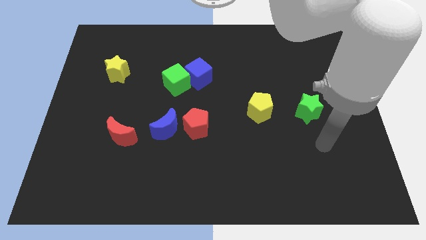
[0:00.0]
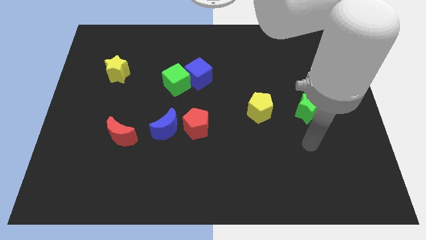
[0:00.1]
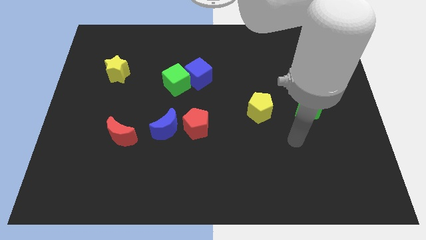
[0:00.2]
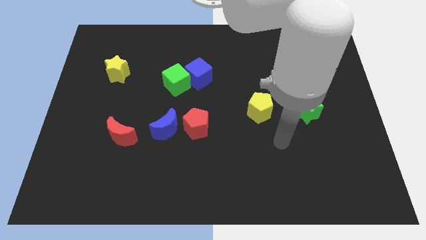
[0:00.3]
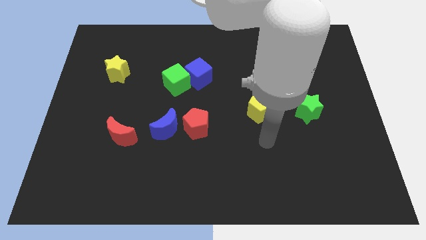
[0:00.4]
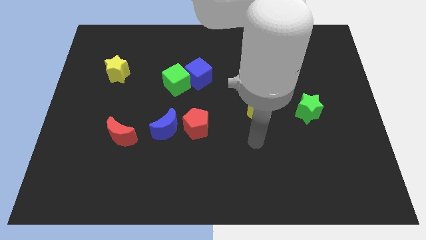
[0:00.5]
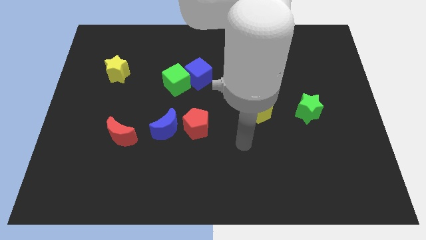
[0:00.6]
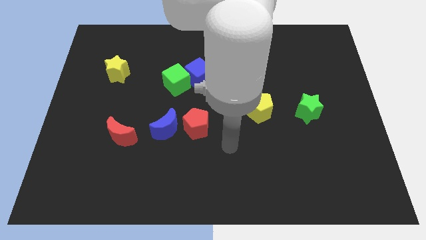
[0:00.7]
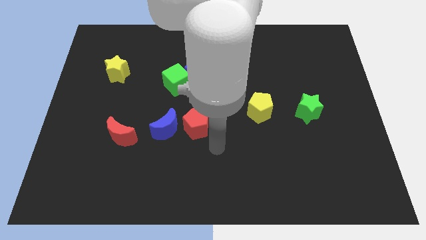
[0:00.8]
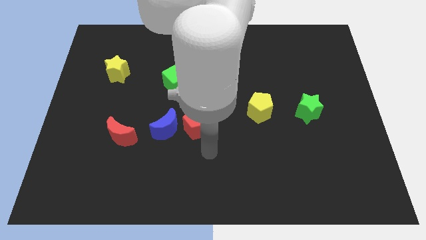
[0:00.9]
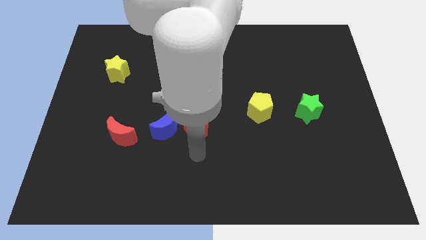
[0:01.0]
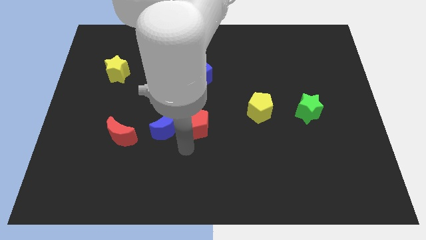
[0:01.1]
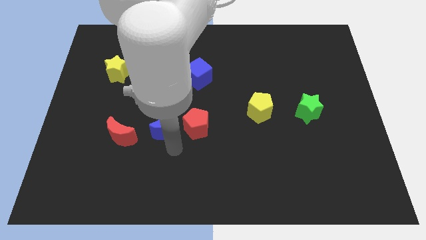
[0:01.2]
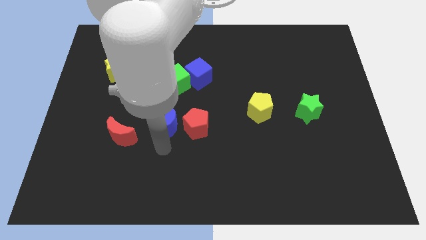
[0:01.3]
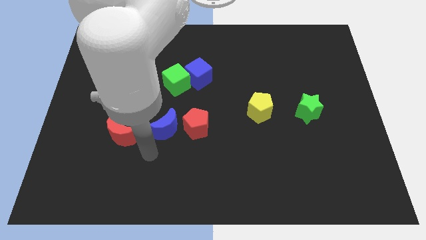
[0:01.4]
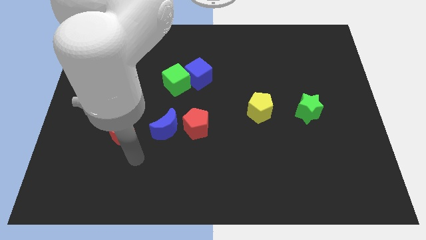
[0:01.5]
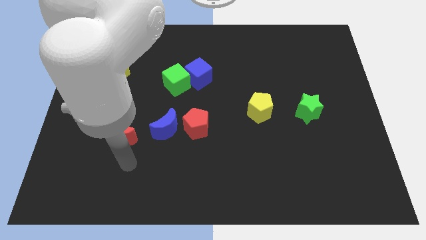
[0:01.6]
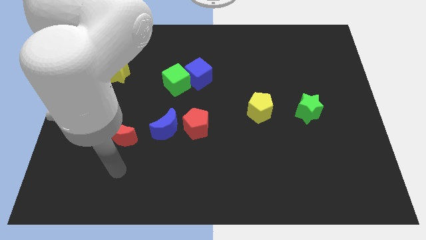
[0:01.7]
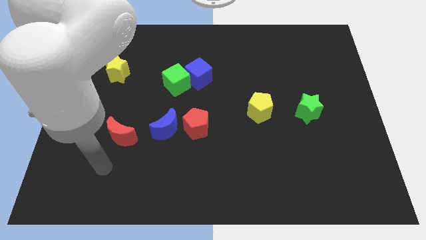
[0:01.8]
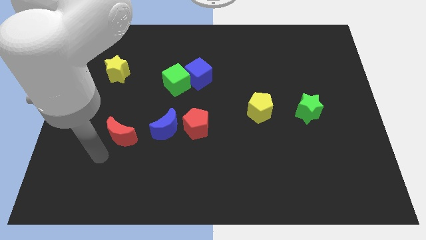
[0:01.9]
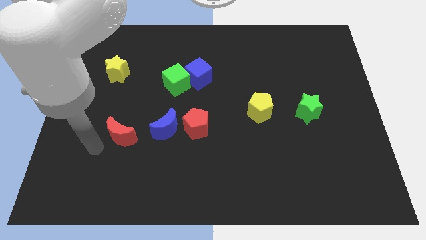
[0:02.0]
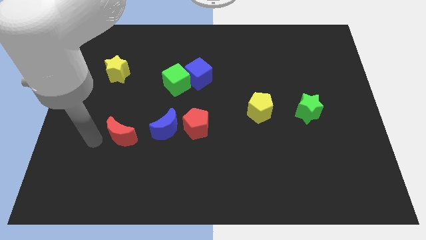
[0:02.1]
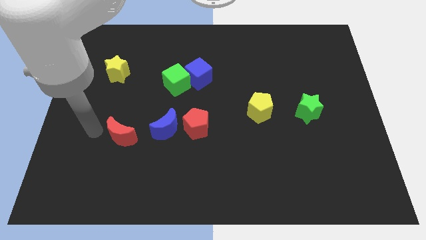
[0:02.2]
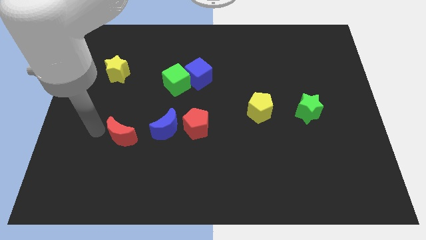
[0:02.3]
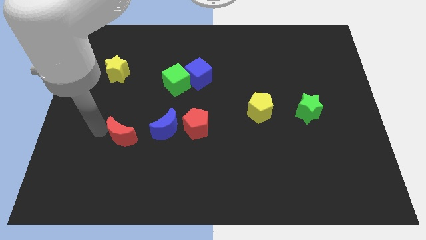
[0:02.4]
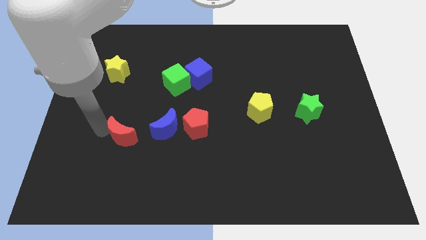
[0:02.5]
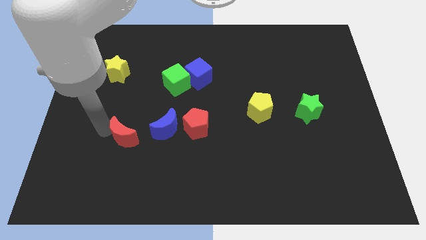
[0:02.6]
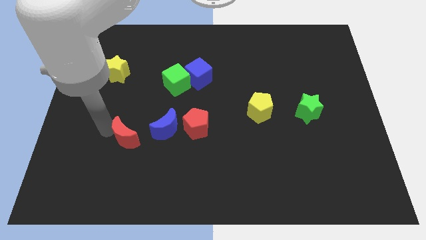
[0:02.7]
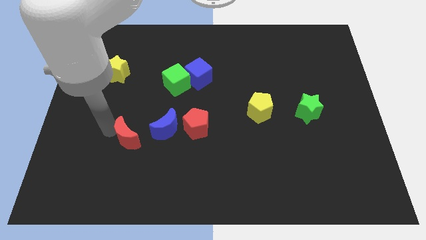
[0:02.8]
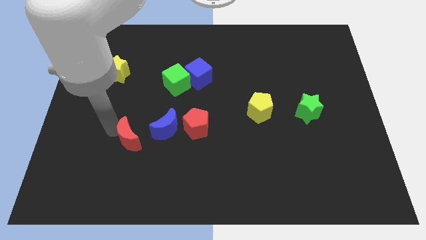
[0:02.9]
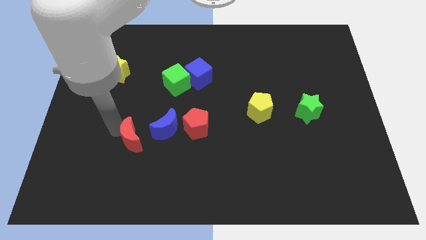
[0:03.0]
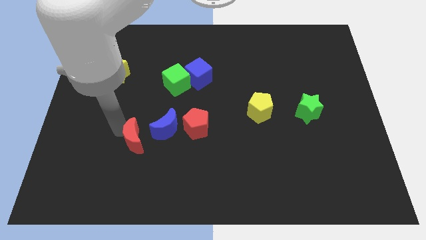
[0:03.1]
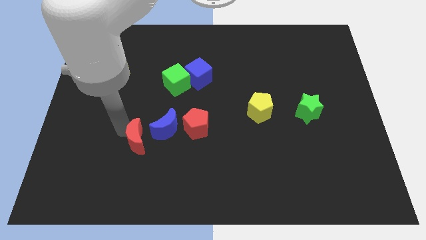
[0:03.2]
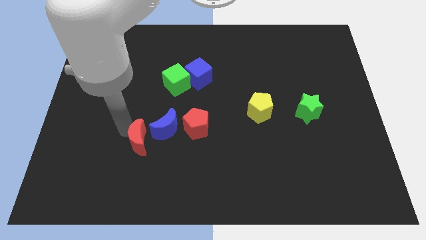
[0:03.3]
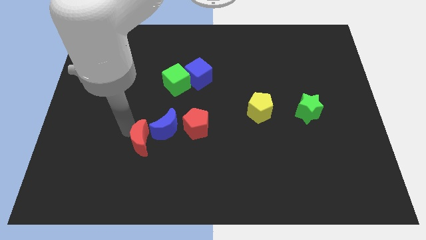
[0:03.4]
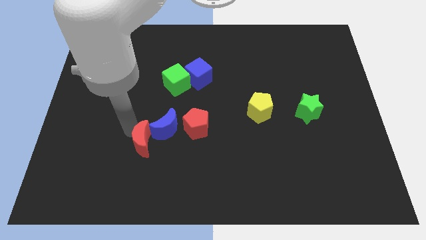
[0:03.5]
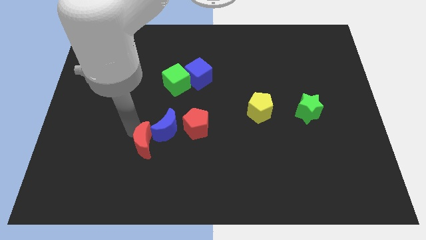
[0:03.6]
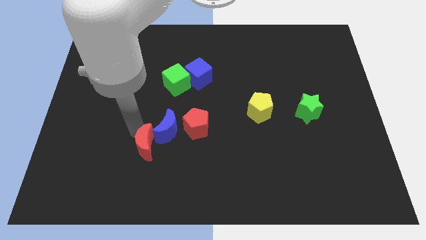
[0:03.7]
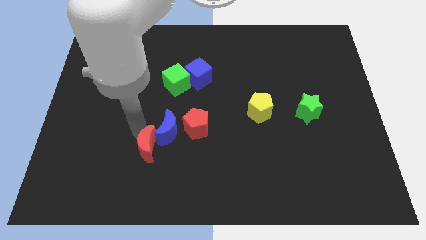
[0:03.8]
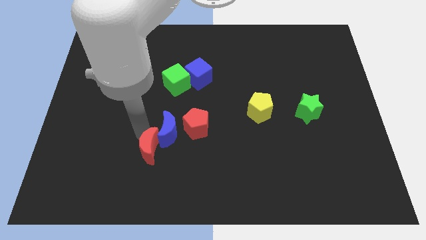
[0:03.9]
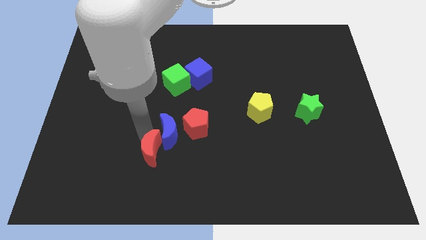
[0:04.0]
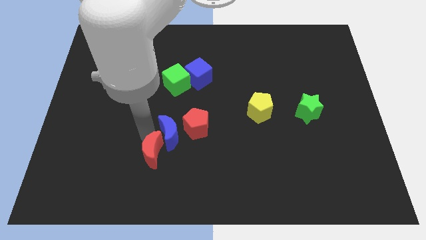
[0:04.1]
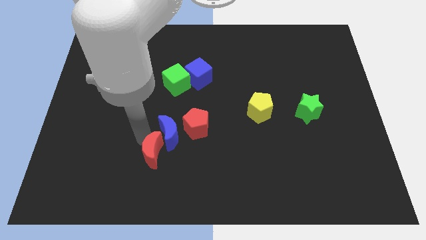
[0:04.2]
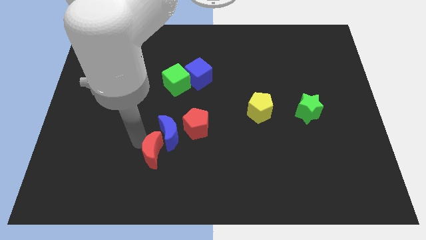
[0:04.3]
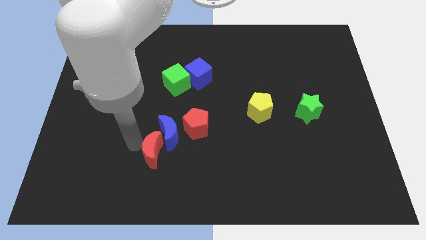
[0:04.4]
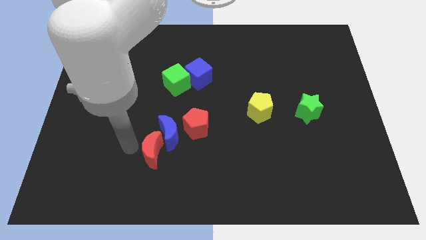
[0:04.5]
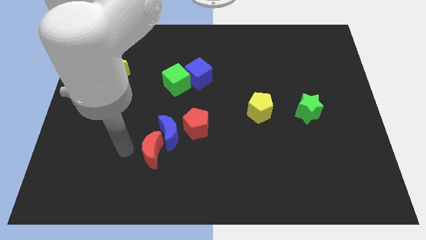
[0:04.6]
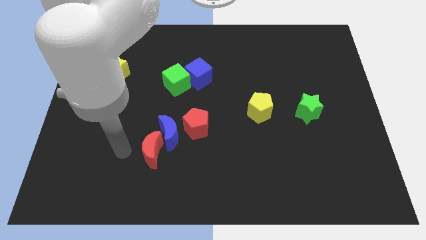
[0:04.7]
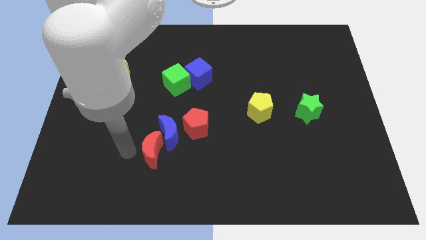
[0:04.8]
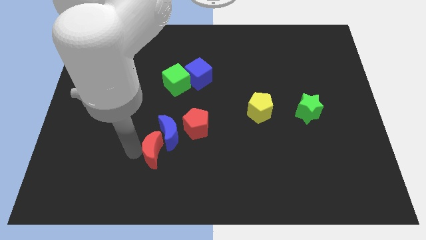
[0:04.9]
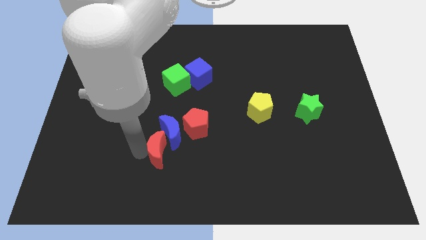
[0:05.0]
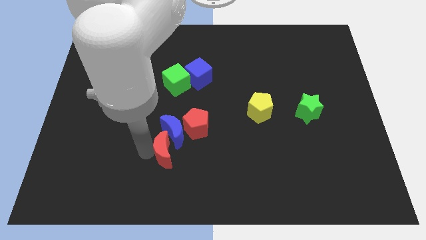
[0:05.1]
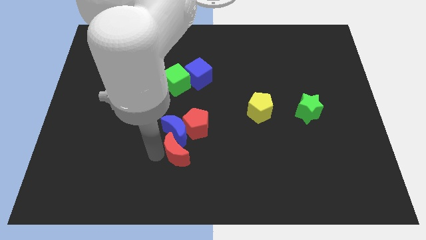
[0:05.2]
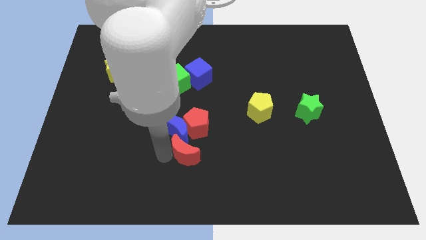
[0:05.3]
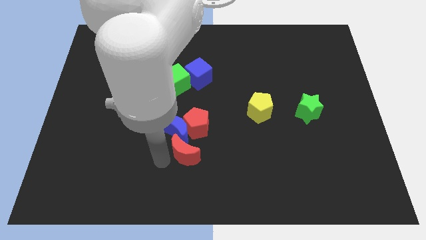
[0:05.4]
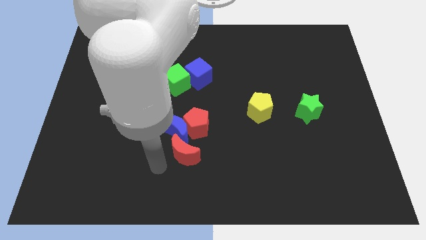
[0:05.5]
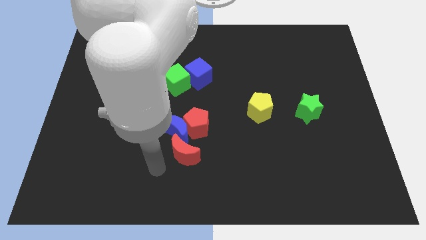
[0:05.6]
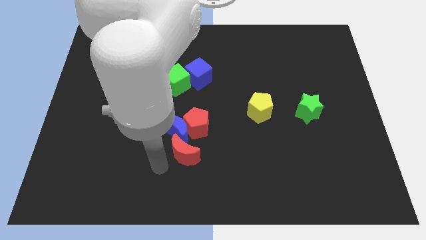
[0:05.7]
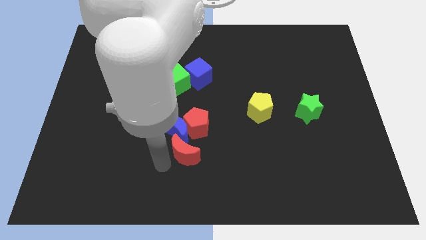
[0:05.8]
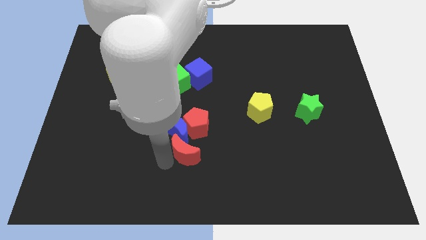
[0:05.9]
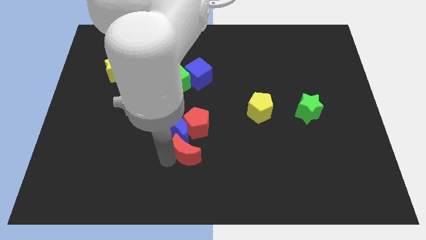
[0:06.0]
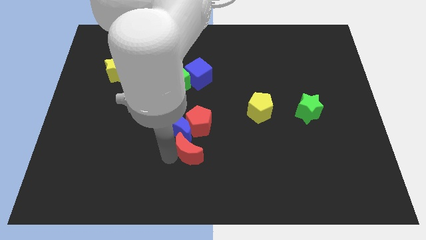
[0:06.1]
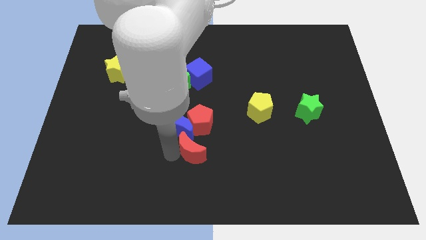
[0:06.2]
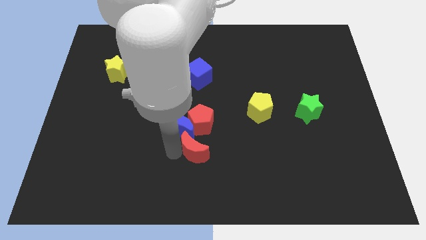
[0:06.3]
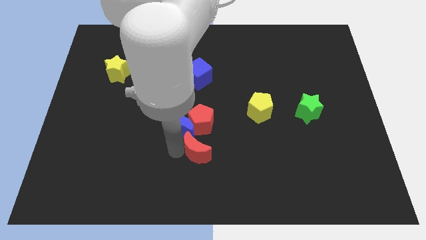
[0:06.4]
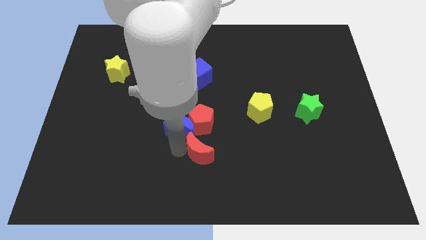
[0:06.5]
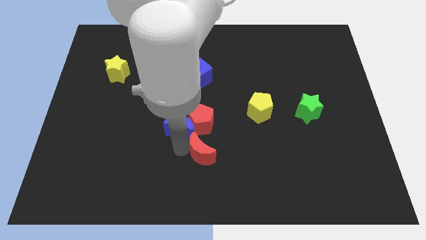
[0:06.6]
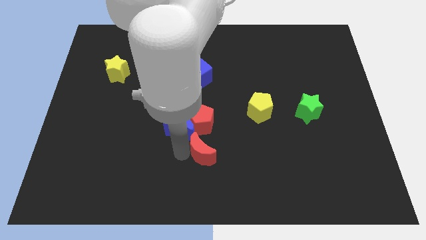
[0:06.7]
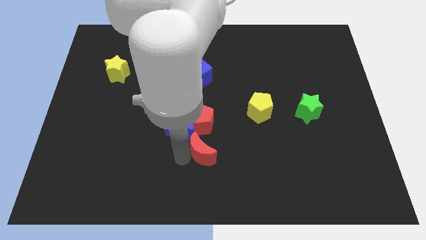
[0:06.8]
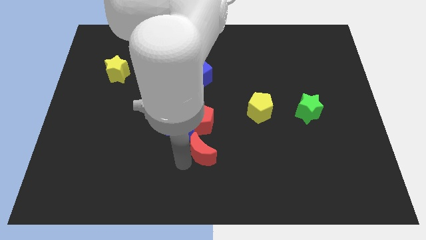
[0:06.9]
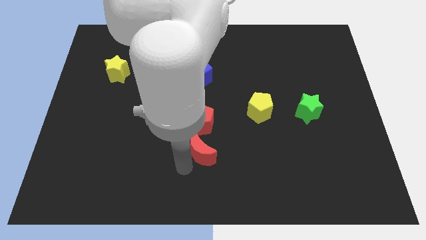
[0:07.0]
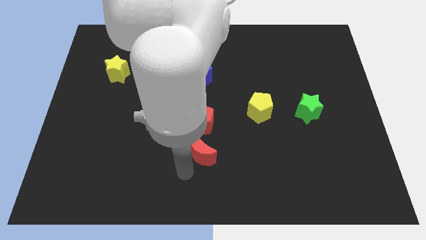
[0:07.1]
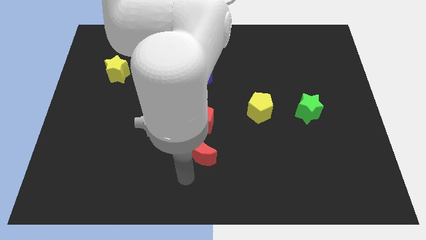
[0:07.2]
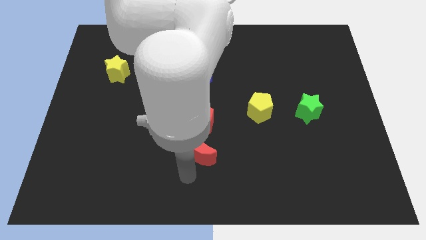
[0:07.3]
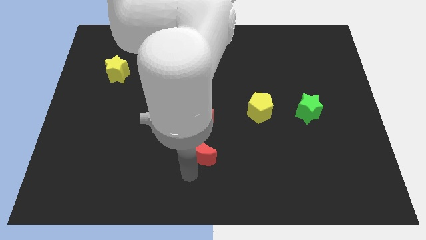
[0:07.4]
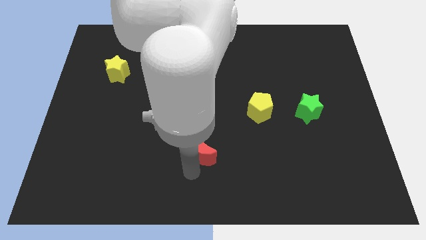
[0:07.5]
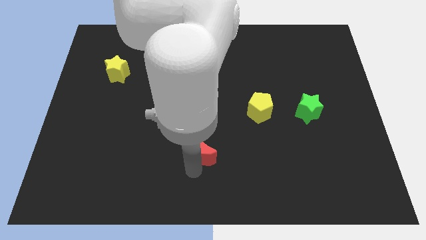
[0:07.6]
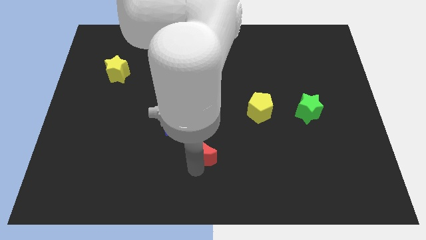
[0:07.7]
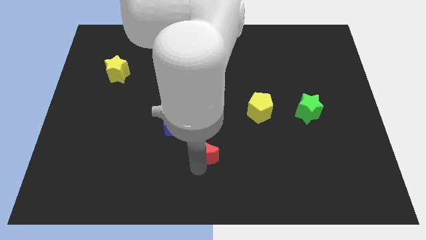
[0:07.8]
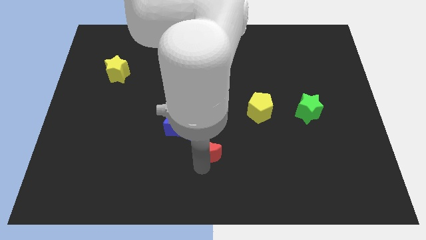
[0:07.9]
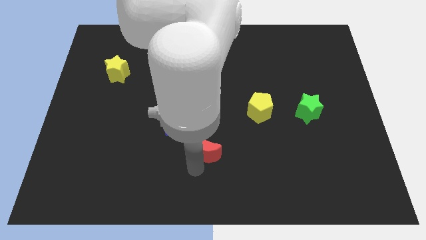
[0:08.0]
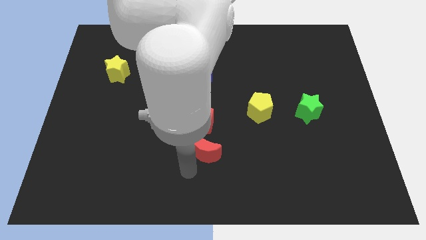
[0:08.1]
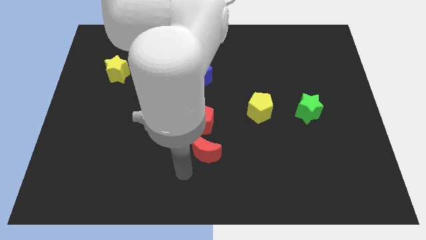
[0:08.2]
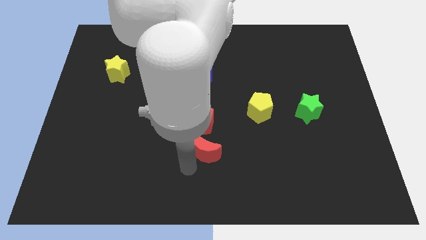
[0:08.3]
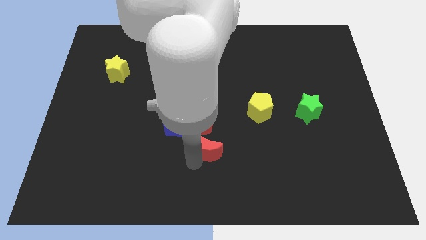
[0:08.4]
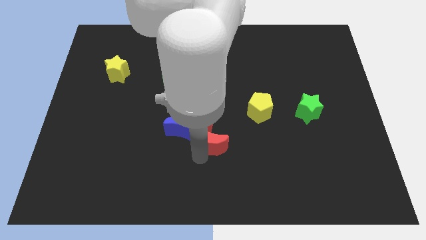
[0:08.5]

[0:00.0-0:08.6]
push the red moon right of the blue moon
